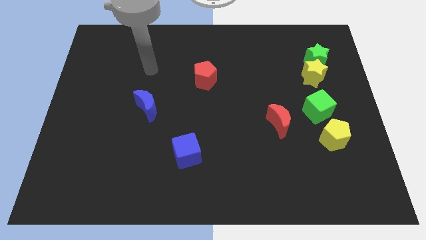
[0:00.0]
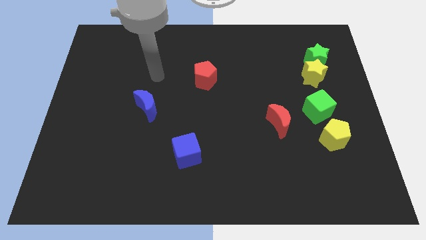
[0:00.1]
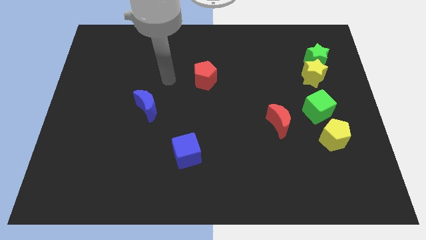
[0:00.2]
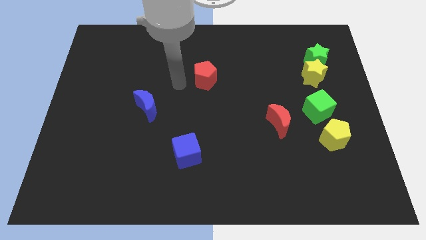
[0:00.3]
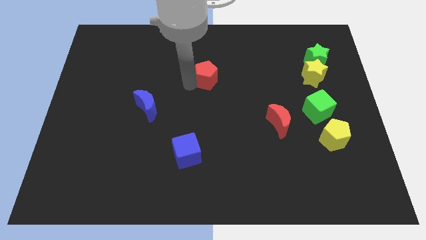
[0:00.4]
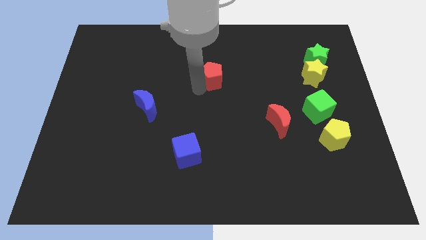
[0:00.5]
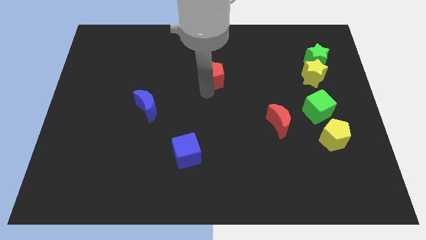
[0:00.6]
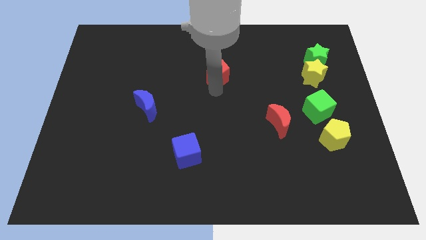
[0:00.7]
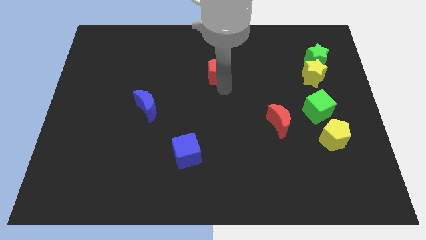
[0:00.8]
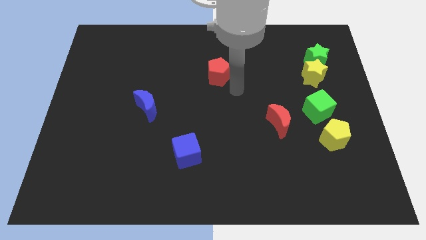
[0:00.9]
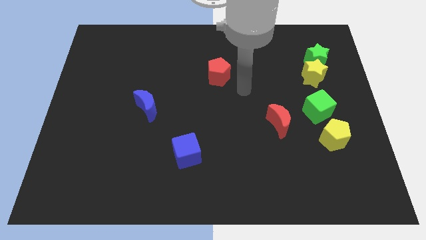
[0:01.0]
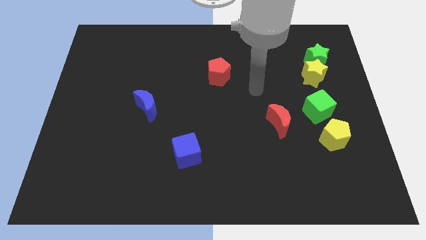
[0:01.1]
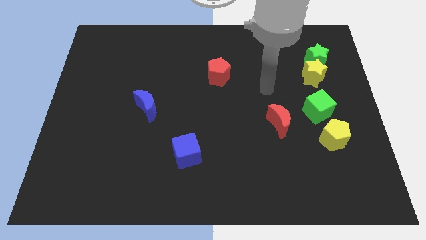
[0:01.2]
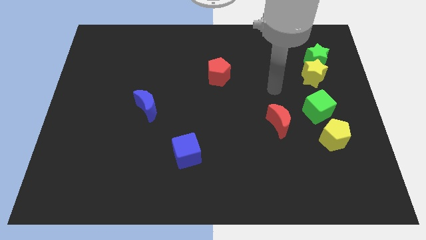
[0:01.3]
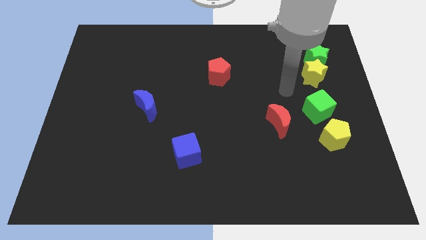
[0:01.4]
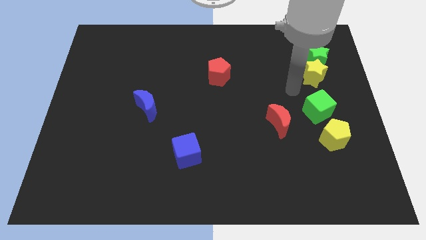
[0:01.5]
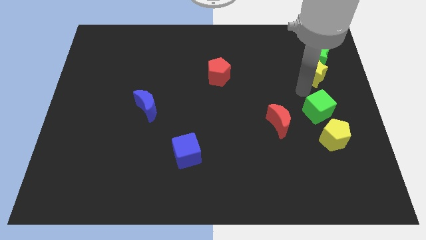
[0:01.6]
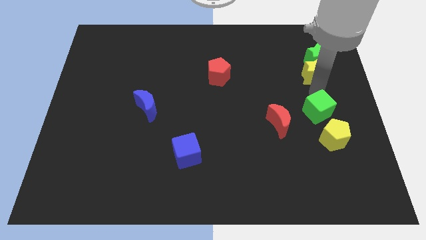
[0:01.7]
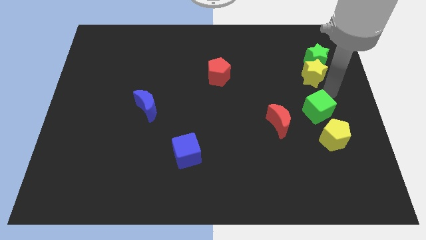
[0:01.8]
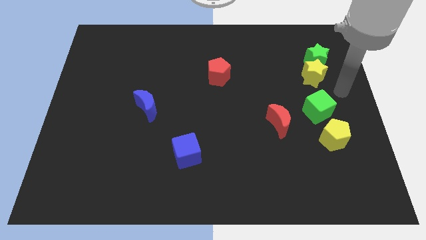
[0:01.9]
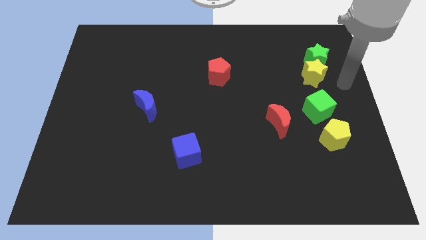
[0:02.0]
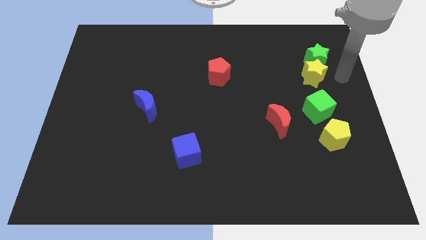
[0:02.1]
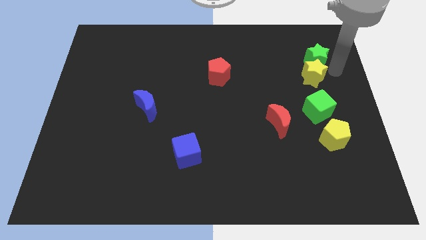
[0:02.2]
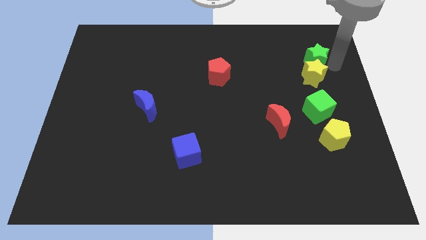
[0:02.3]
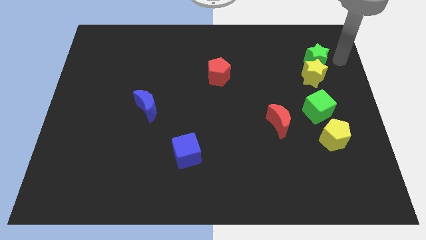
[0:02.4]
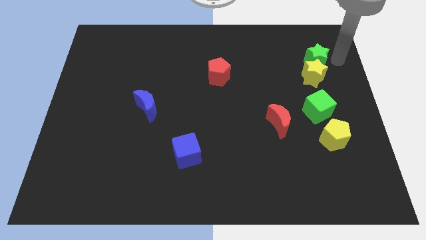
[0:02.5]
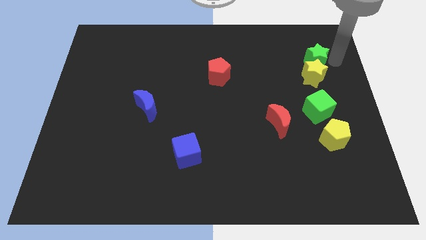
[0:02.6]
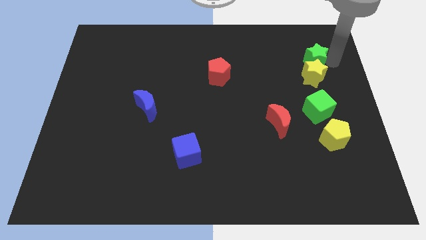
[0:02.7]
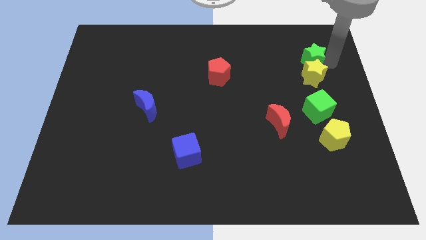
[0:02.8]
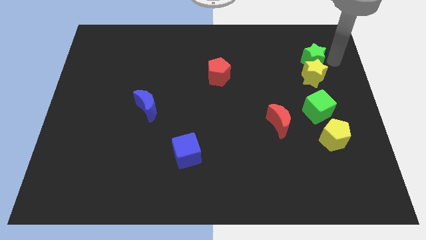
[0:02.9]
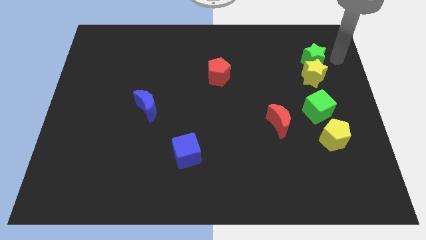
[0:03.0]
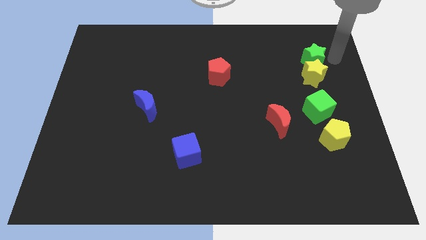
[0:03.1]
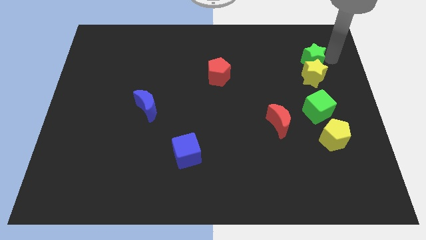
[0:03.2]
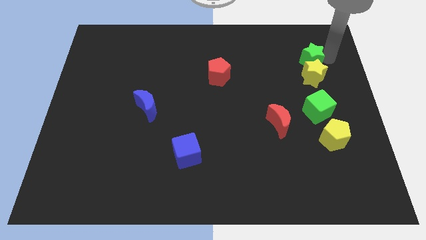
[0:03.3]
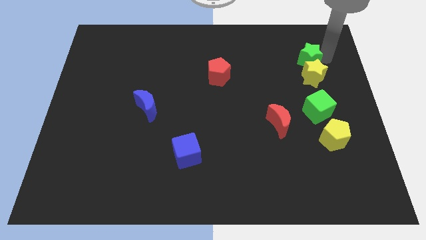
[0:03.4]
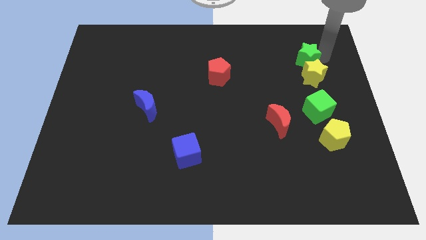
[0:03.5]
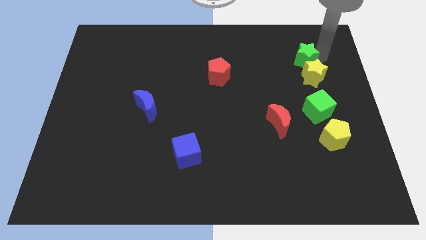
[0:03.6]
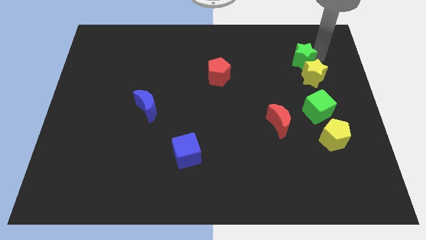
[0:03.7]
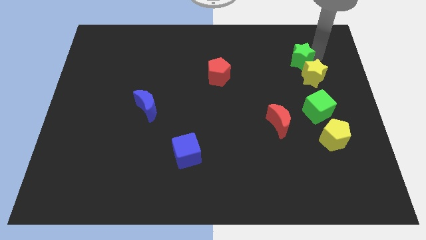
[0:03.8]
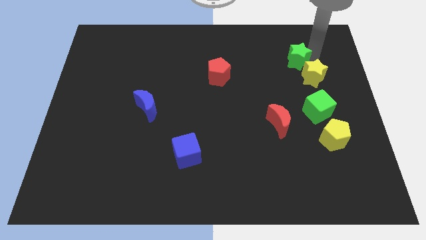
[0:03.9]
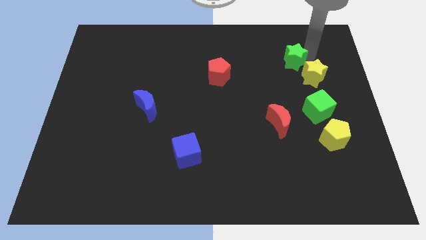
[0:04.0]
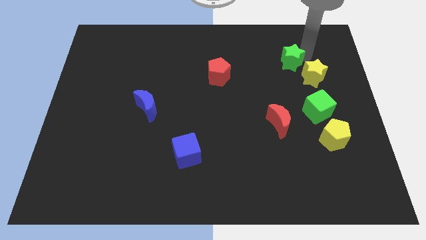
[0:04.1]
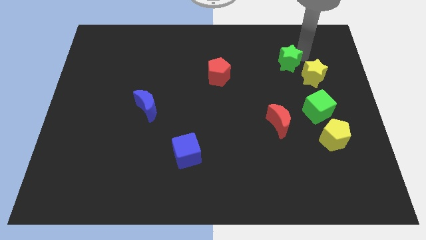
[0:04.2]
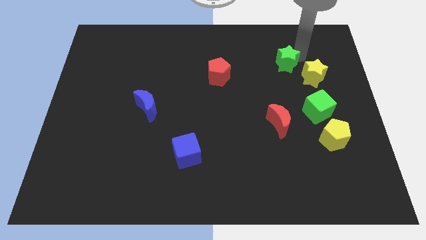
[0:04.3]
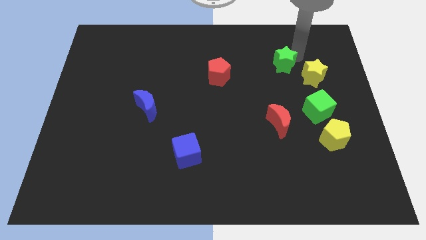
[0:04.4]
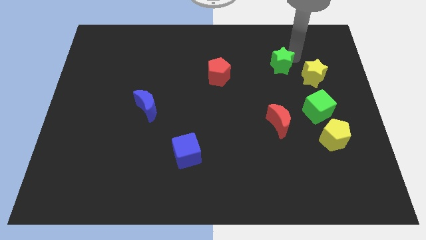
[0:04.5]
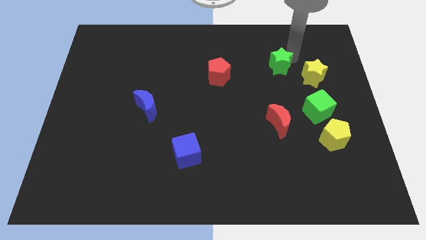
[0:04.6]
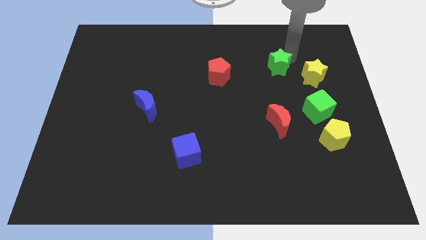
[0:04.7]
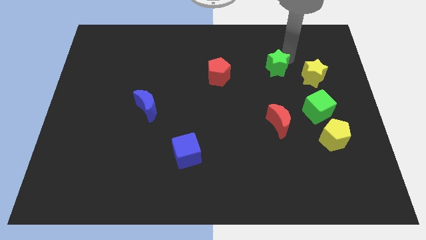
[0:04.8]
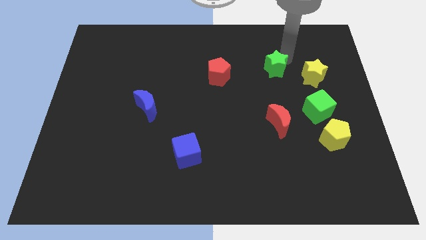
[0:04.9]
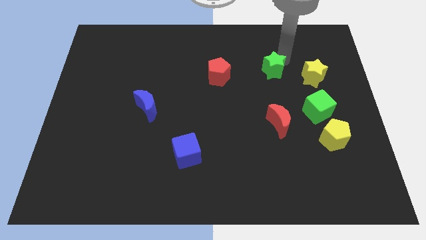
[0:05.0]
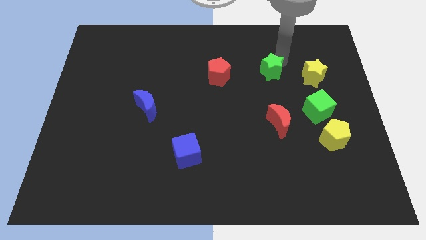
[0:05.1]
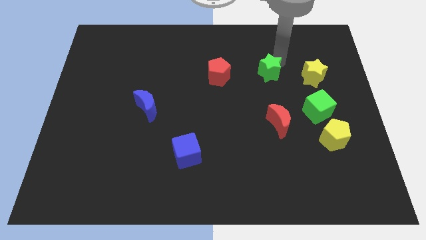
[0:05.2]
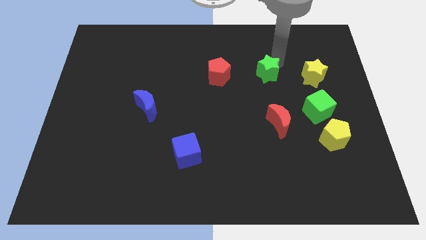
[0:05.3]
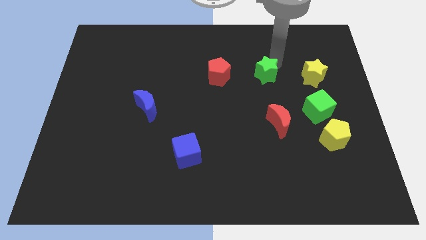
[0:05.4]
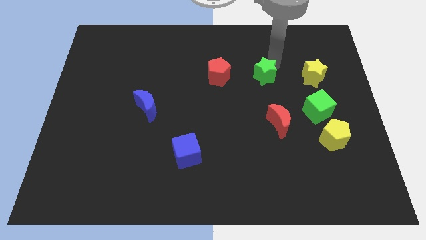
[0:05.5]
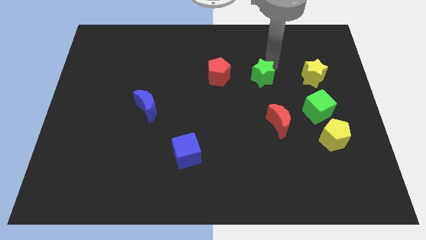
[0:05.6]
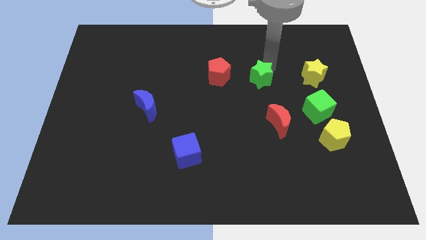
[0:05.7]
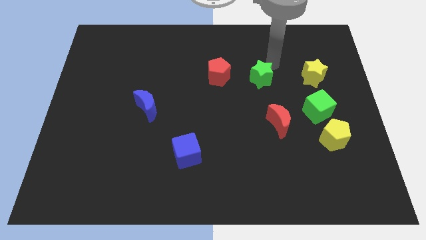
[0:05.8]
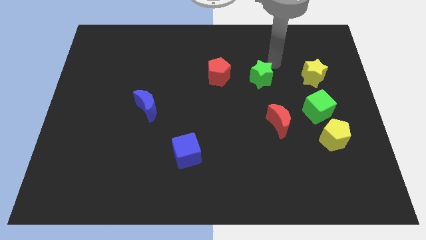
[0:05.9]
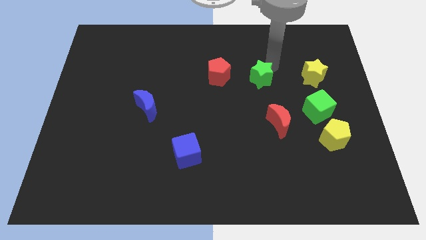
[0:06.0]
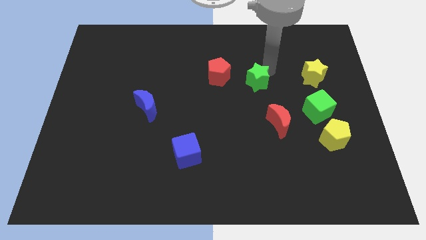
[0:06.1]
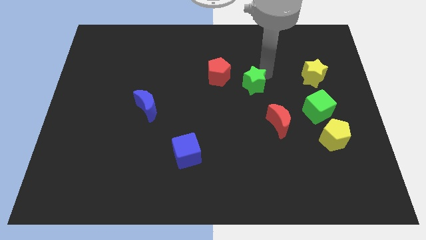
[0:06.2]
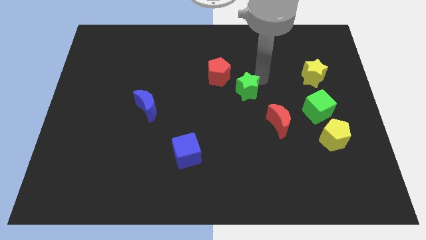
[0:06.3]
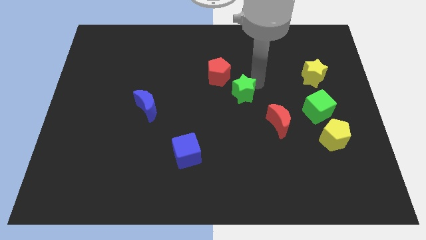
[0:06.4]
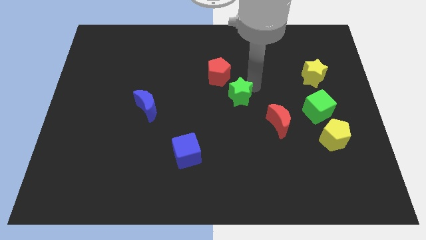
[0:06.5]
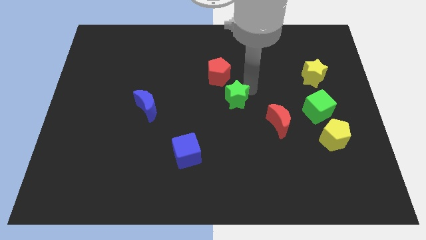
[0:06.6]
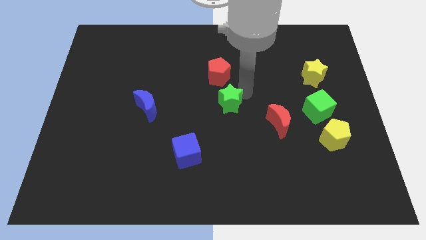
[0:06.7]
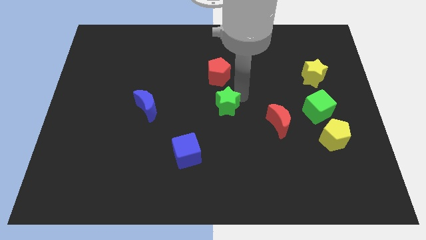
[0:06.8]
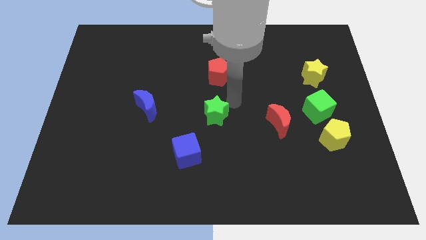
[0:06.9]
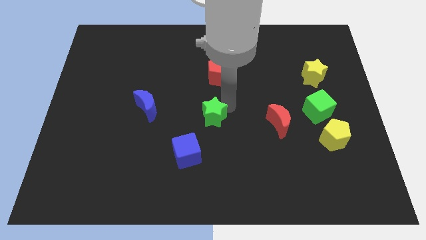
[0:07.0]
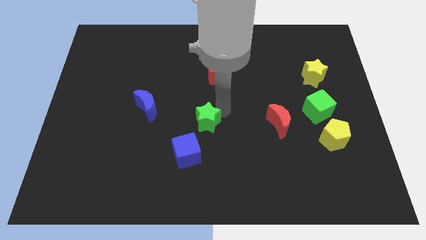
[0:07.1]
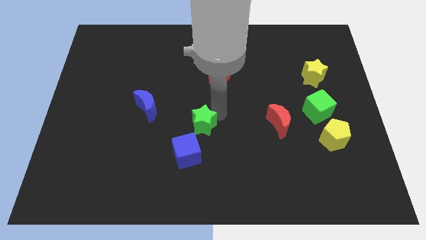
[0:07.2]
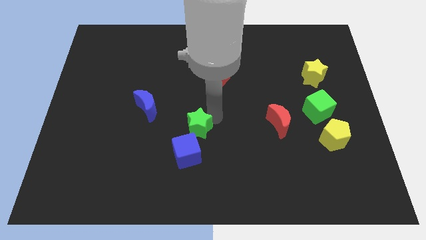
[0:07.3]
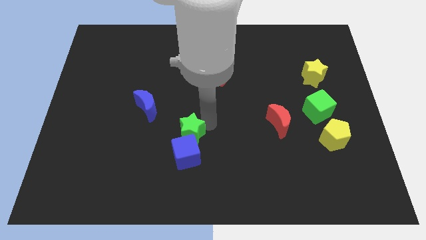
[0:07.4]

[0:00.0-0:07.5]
push the green star to the top left side of the blue cube
